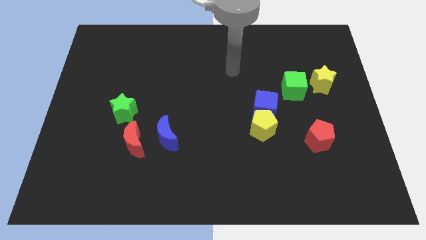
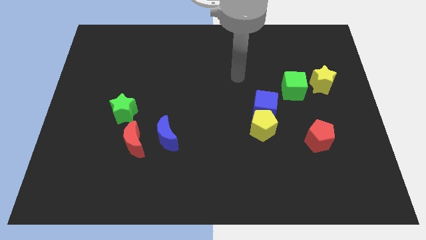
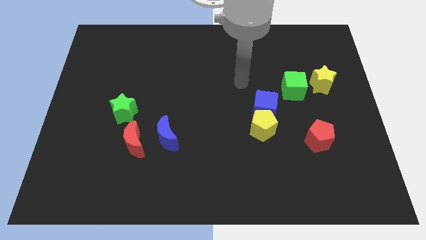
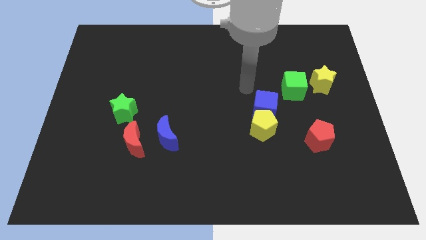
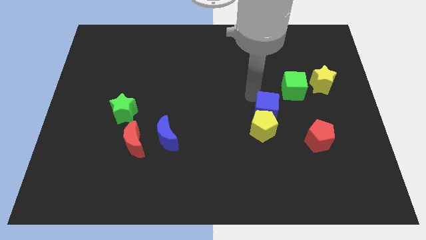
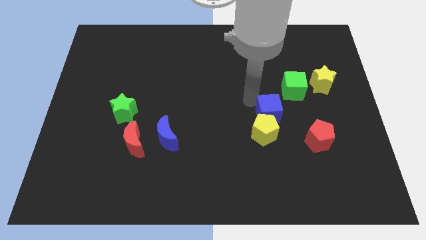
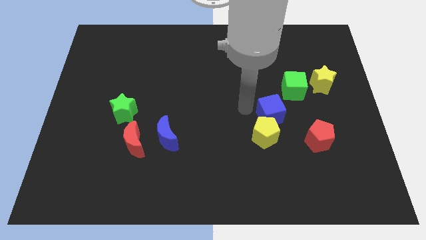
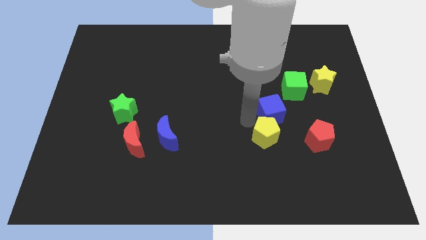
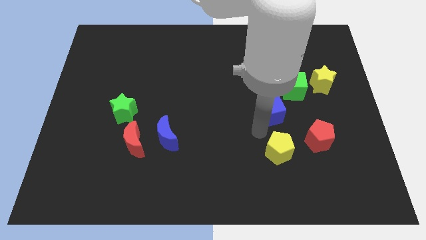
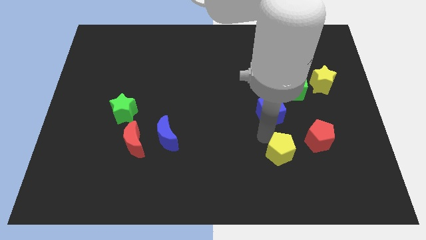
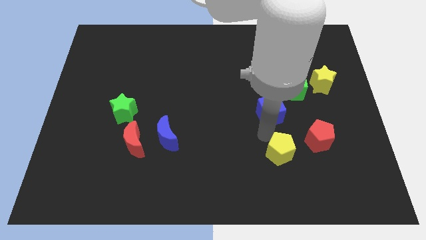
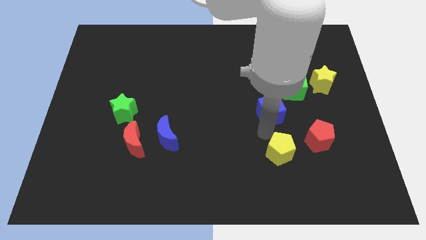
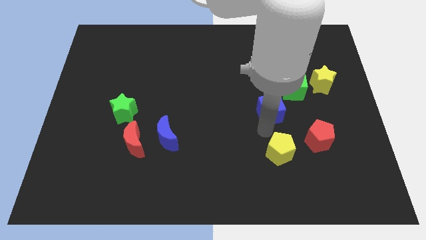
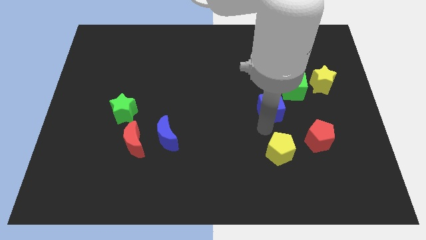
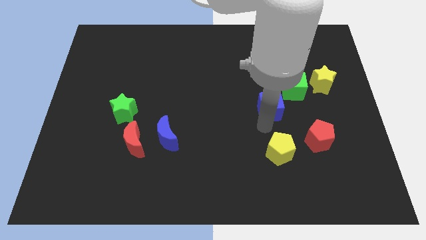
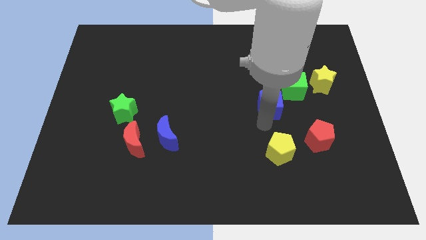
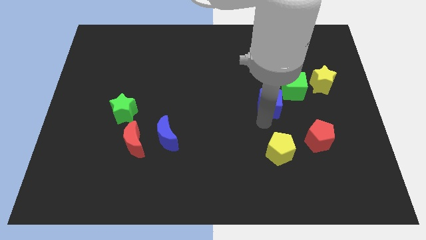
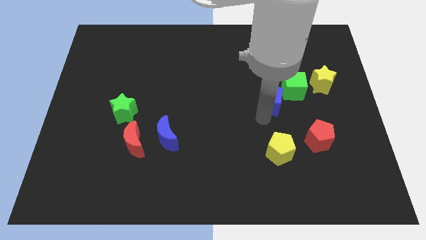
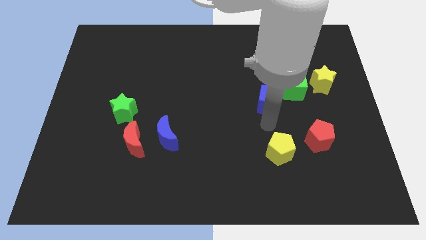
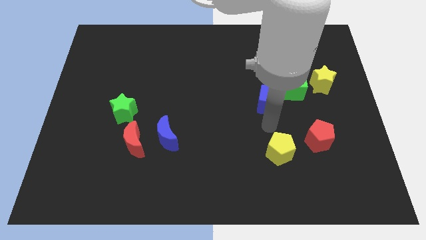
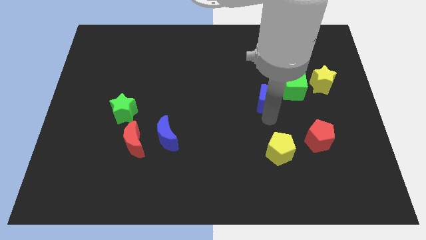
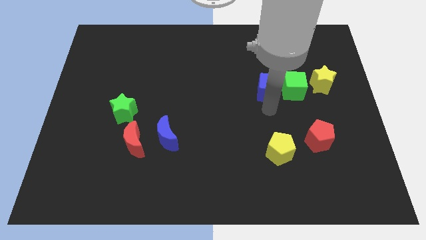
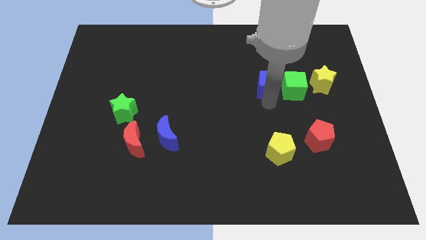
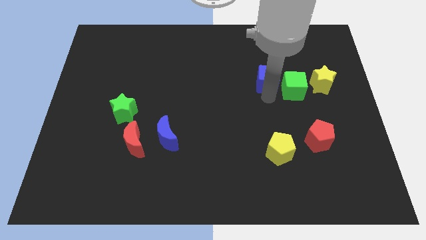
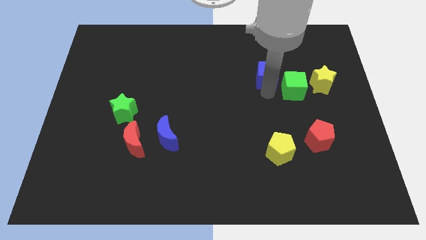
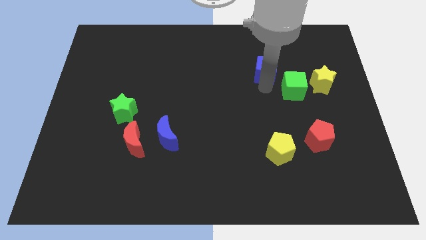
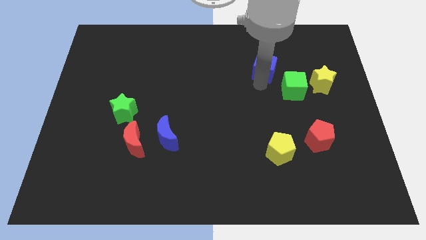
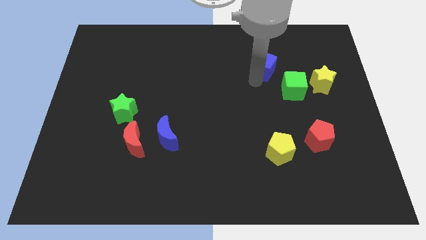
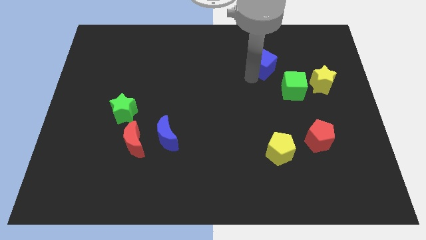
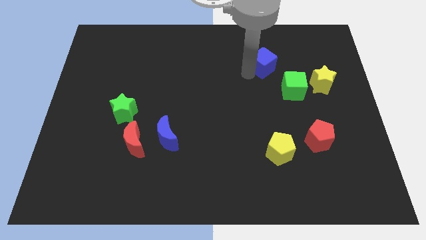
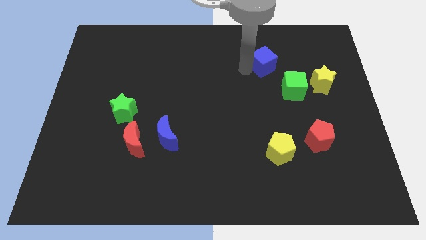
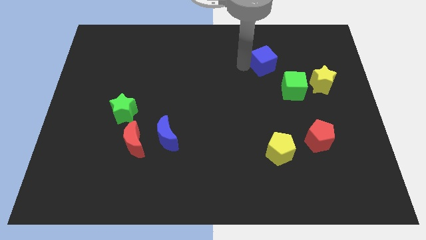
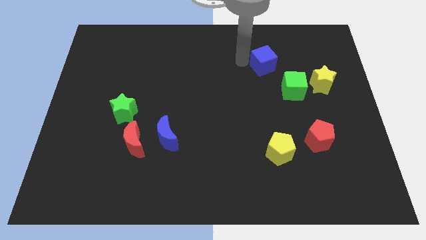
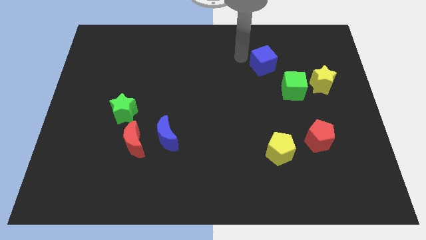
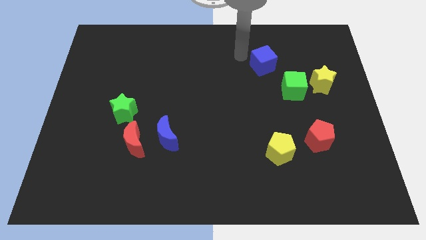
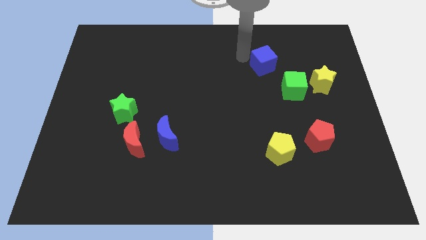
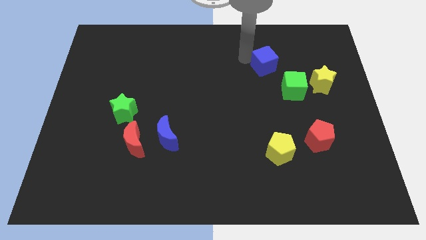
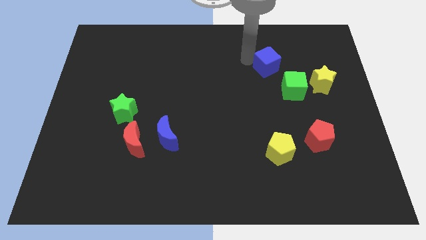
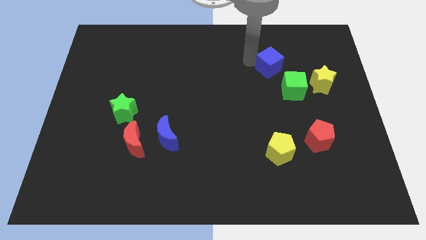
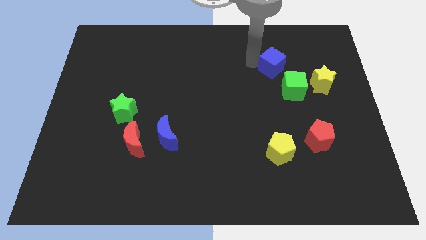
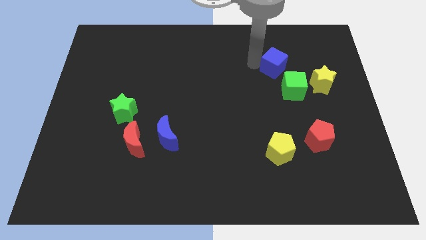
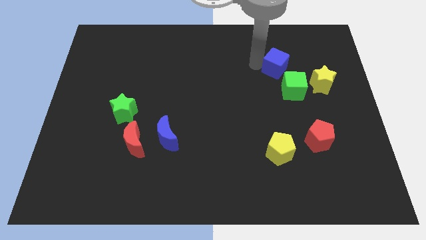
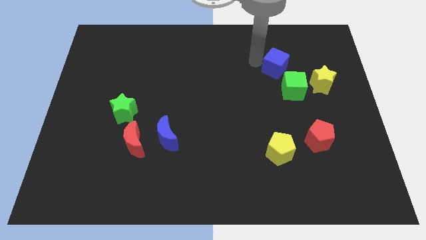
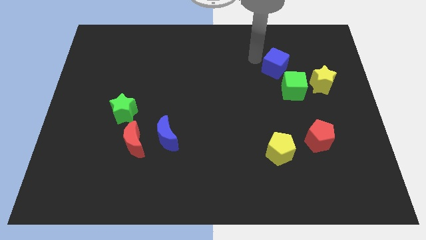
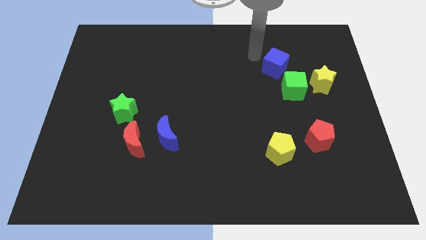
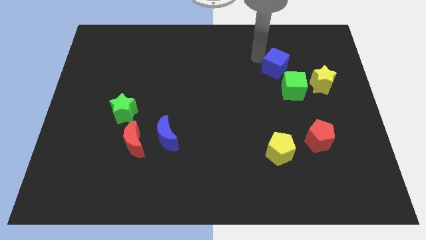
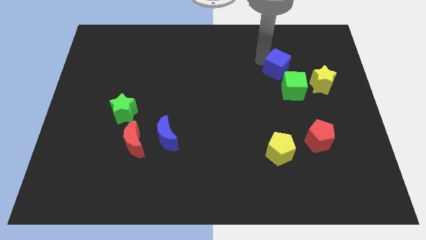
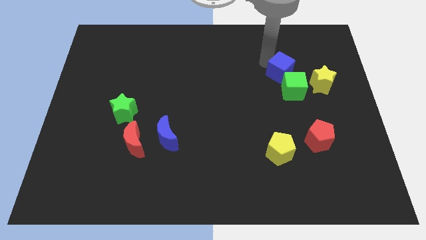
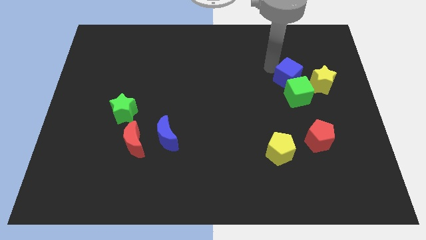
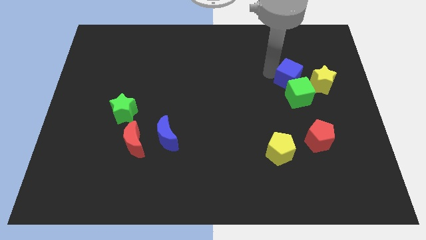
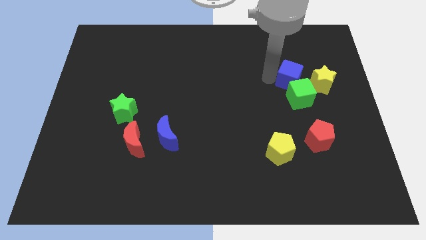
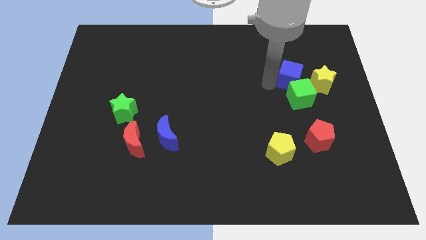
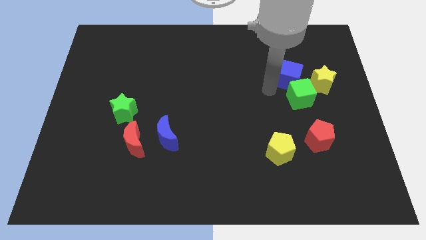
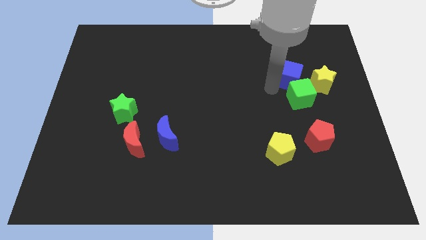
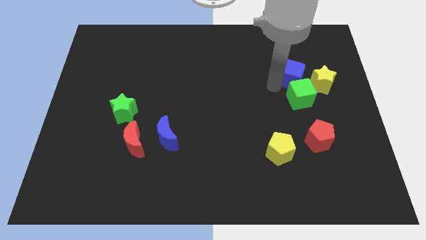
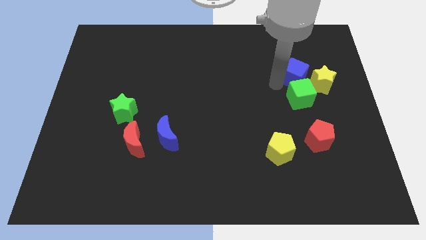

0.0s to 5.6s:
push the blue cube diagonally up and to the right of the green cube

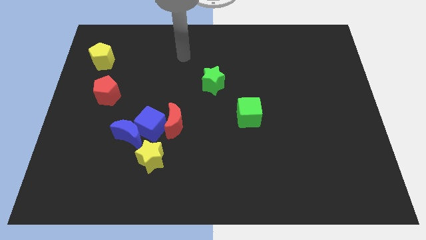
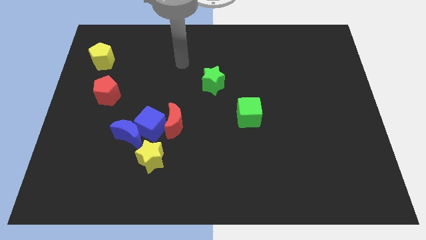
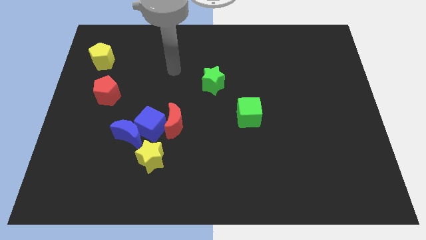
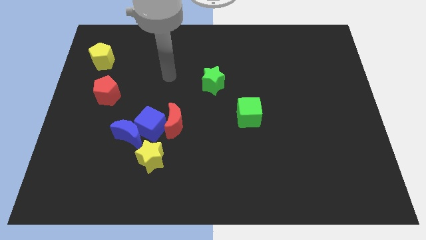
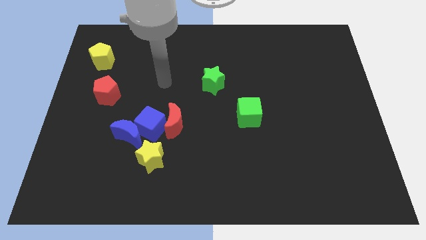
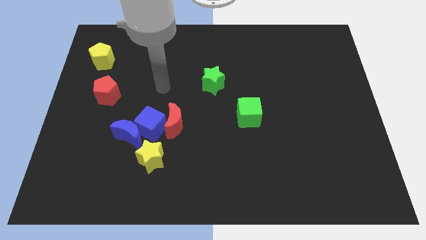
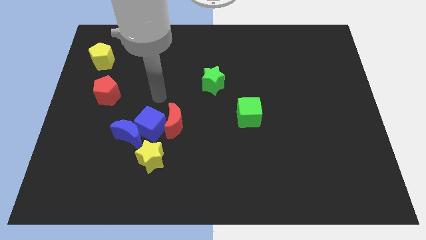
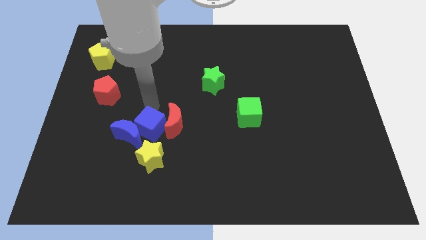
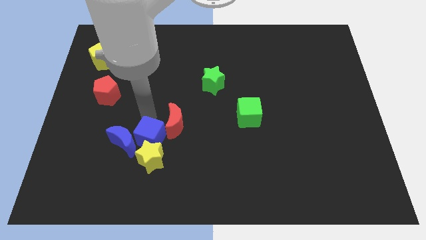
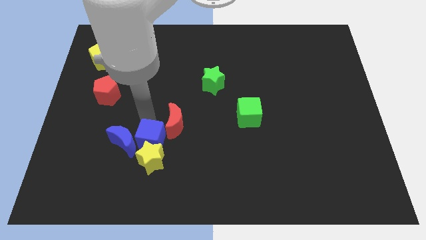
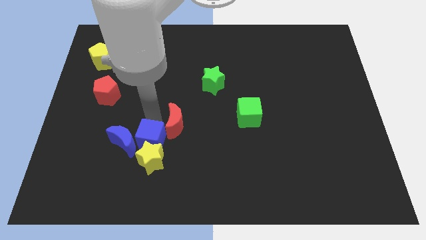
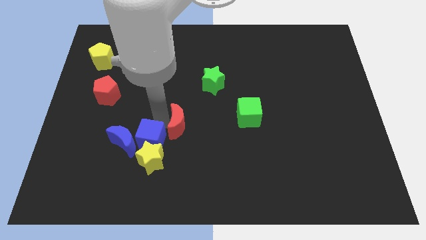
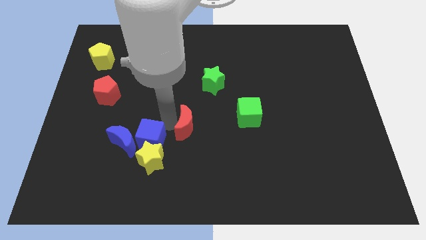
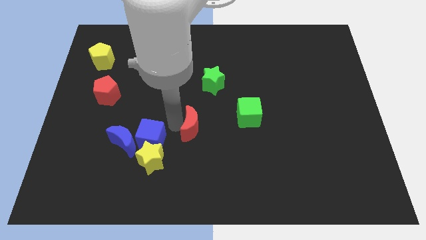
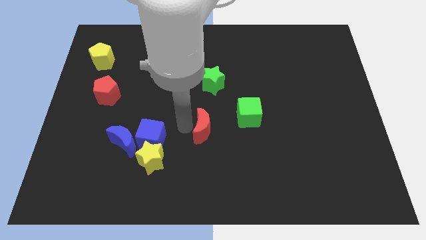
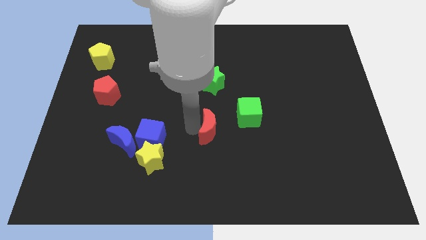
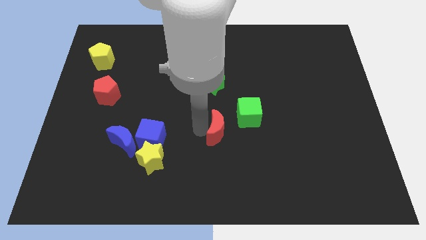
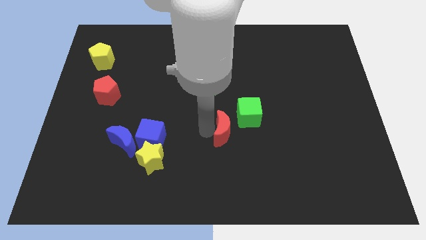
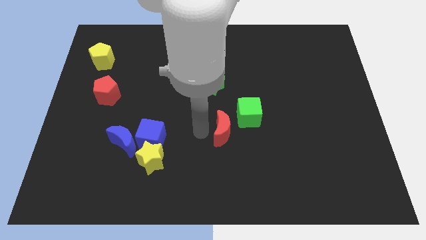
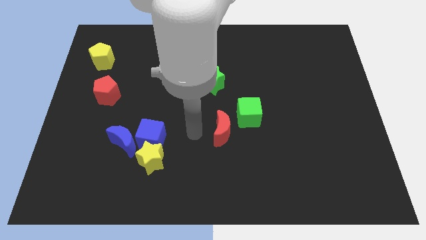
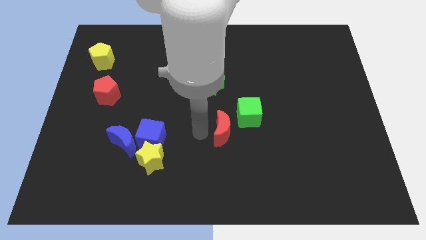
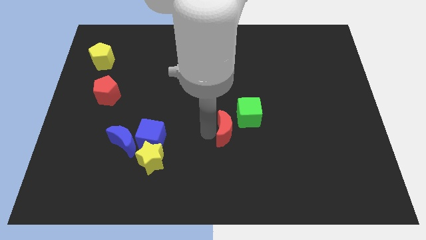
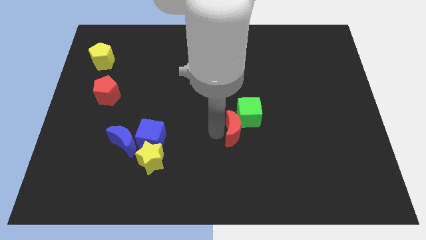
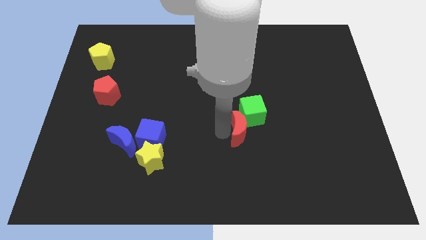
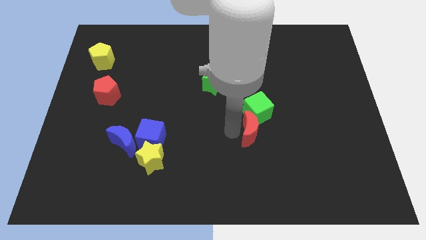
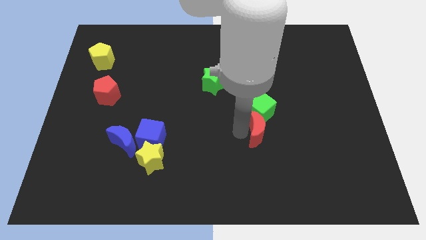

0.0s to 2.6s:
slide the red moon to the bottom right of the green cube
